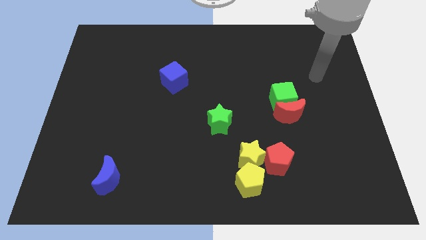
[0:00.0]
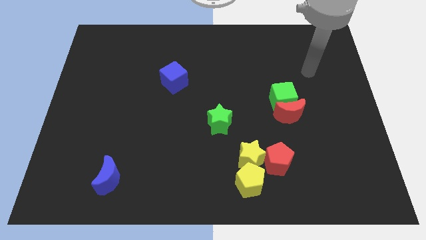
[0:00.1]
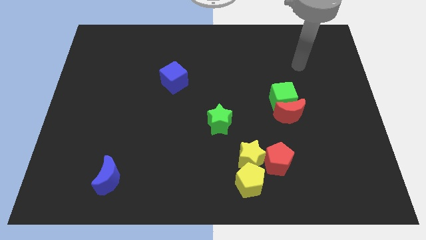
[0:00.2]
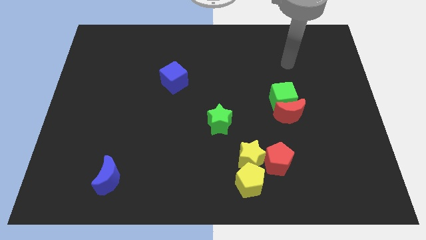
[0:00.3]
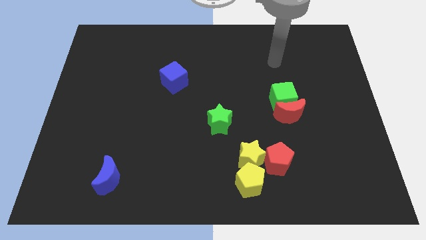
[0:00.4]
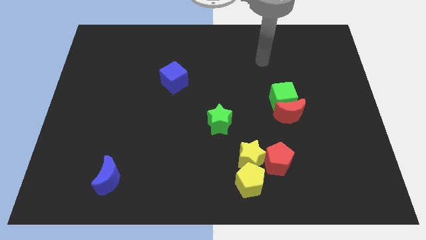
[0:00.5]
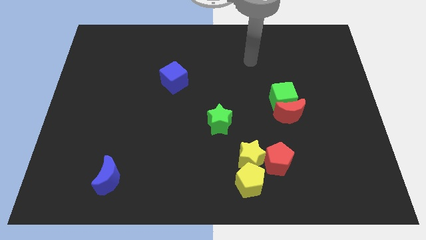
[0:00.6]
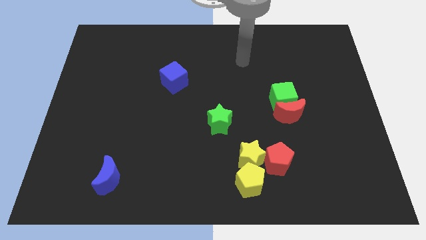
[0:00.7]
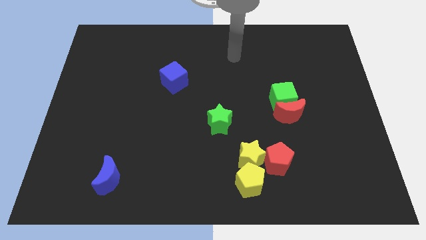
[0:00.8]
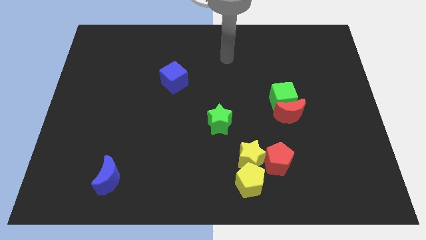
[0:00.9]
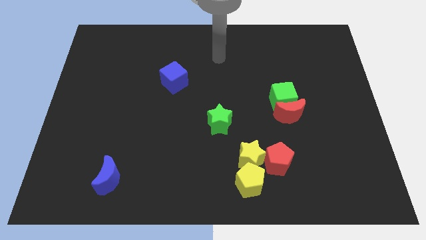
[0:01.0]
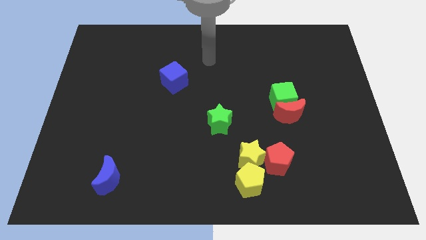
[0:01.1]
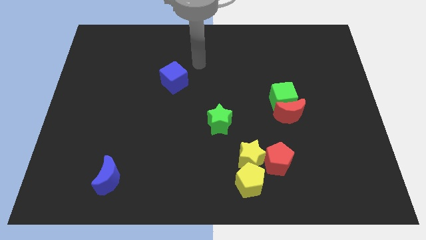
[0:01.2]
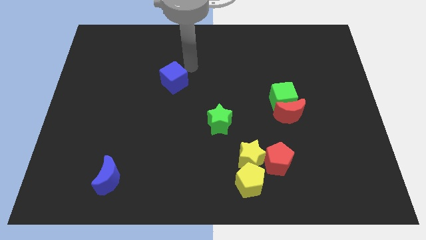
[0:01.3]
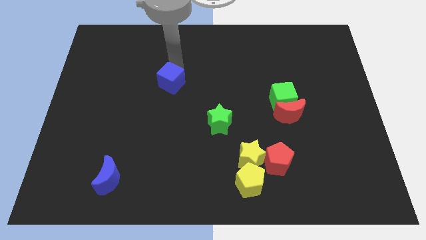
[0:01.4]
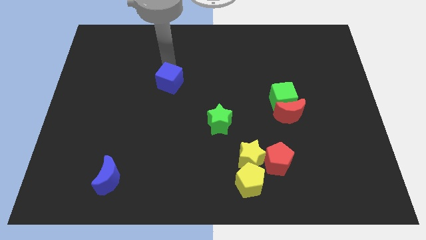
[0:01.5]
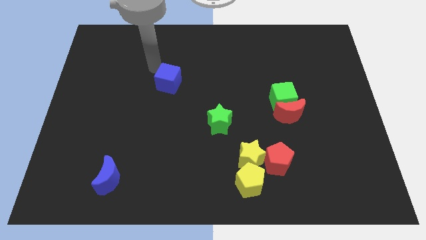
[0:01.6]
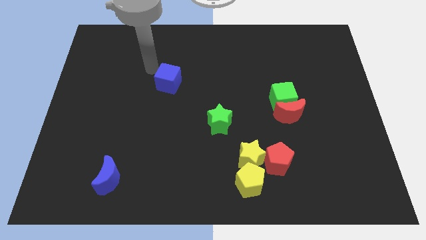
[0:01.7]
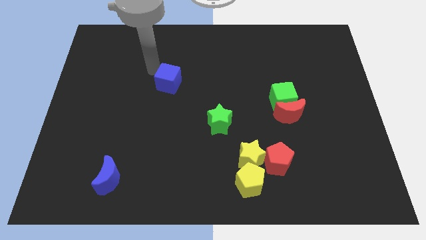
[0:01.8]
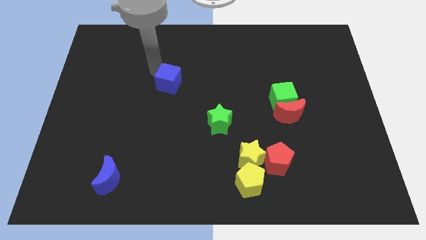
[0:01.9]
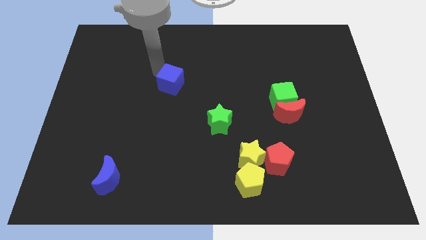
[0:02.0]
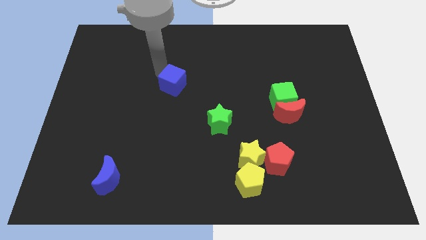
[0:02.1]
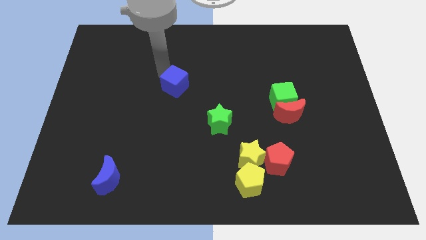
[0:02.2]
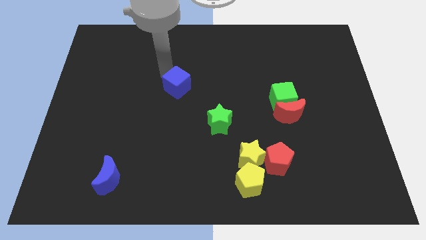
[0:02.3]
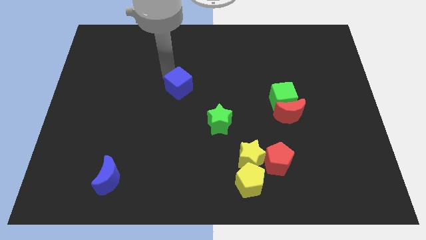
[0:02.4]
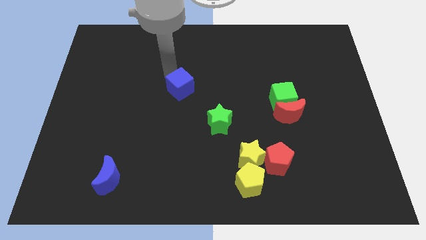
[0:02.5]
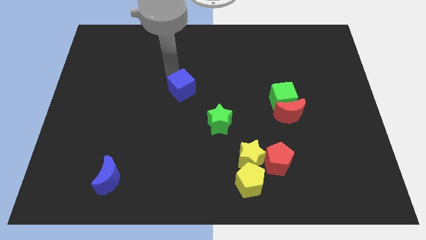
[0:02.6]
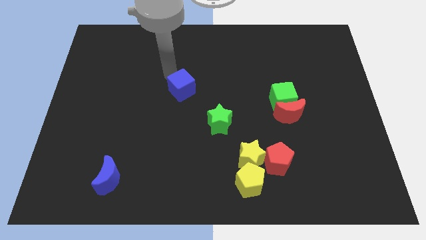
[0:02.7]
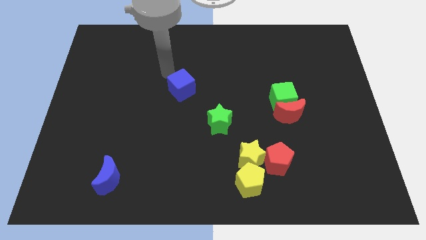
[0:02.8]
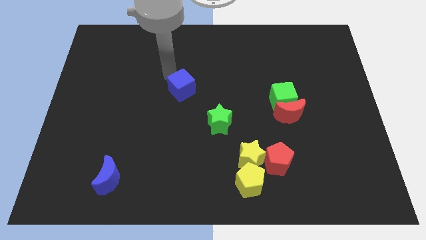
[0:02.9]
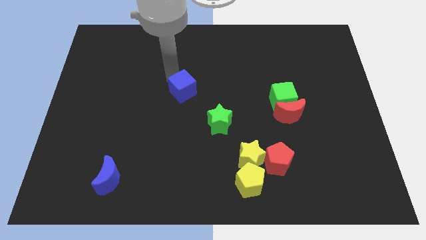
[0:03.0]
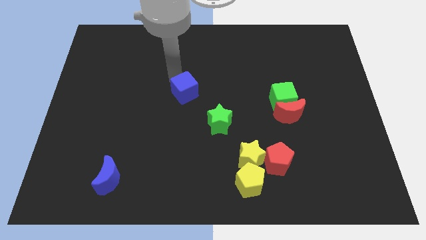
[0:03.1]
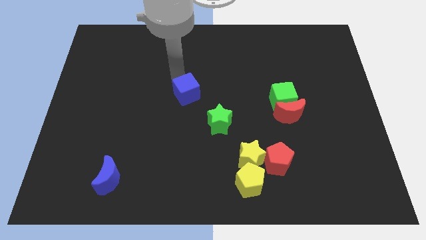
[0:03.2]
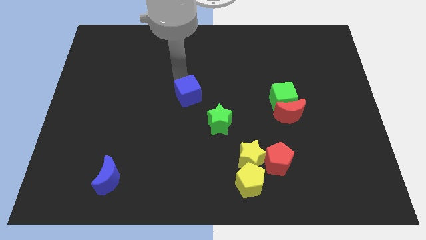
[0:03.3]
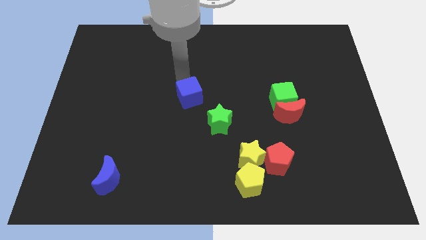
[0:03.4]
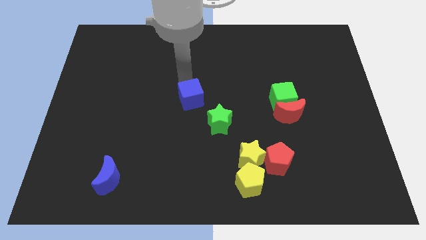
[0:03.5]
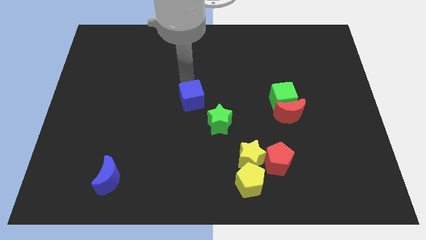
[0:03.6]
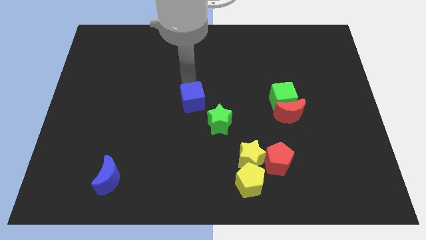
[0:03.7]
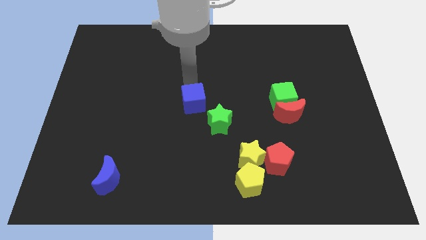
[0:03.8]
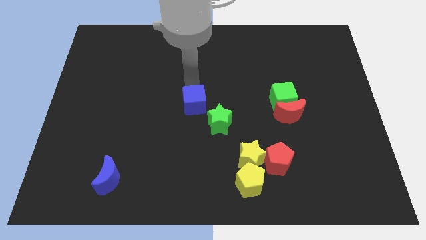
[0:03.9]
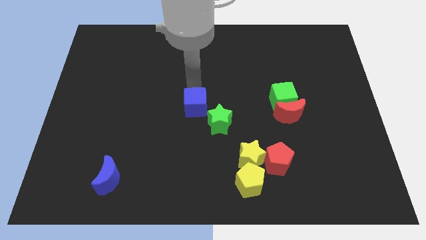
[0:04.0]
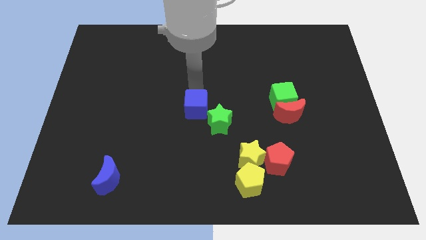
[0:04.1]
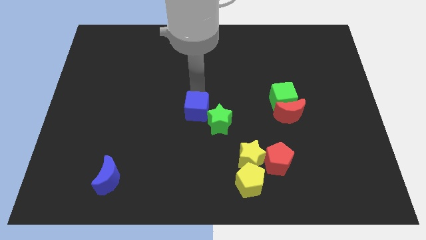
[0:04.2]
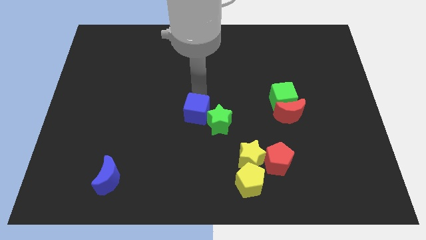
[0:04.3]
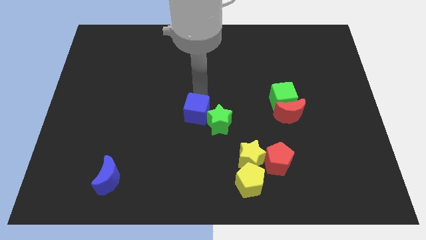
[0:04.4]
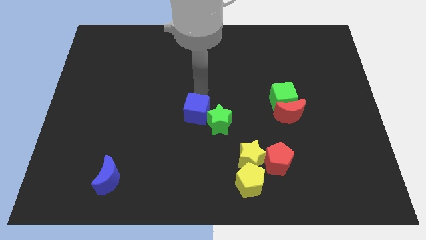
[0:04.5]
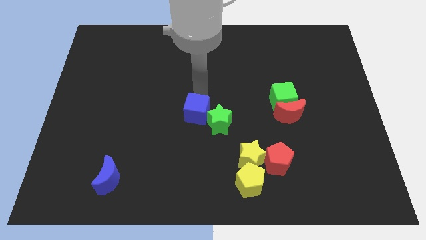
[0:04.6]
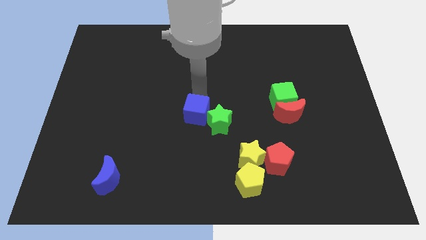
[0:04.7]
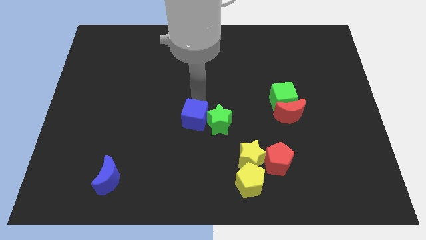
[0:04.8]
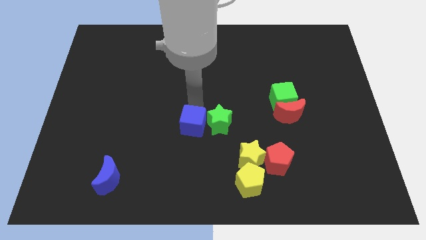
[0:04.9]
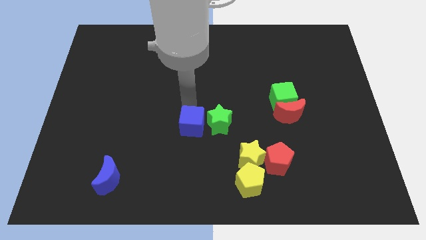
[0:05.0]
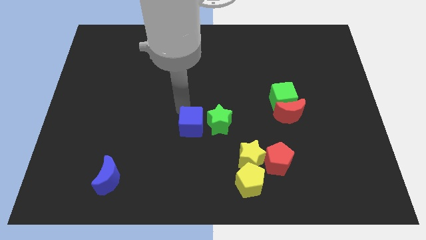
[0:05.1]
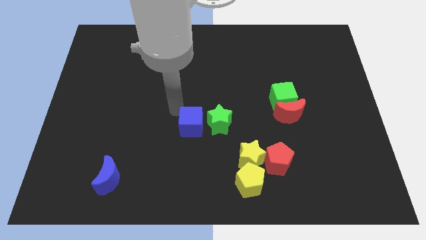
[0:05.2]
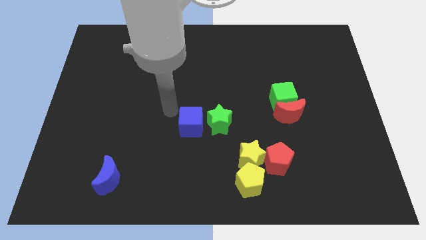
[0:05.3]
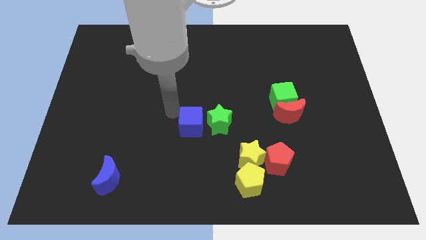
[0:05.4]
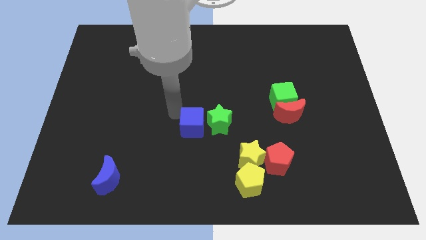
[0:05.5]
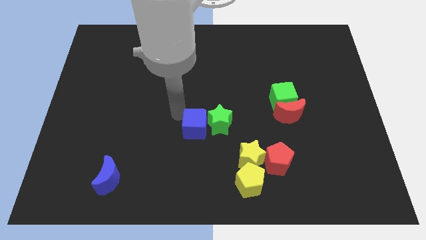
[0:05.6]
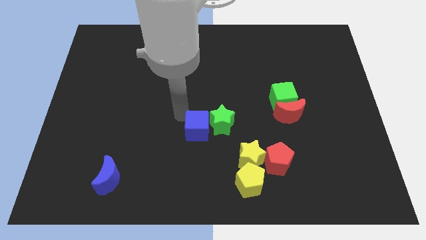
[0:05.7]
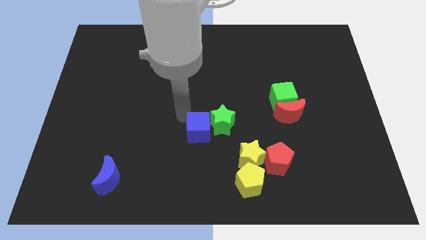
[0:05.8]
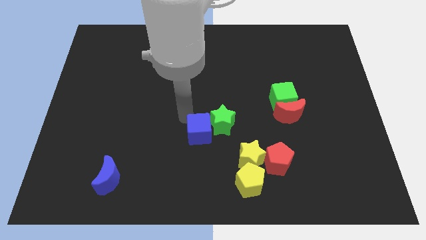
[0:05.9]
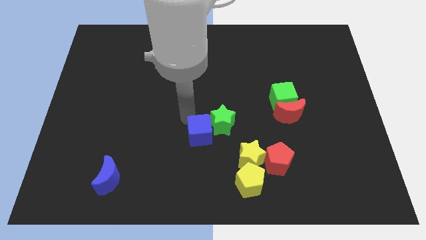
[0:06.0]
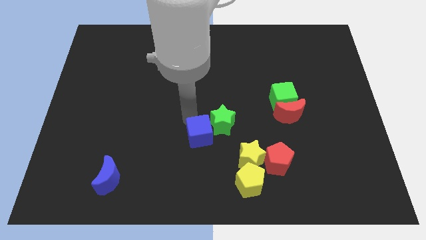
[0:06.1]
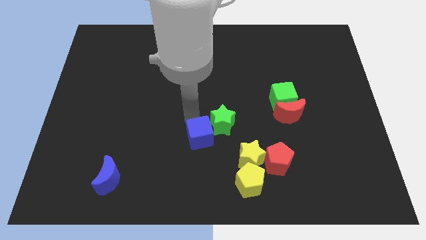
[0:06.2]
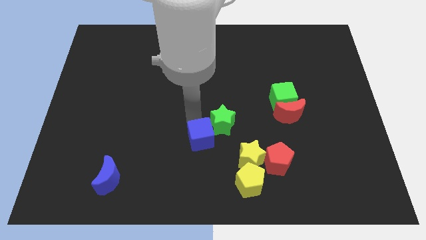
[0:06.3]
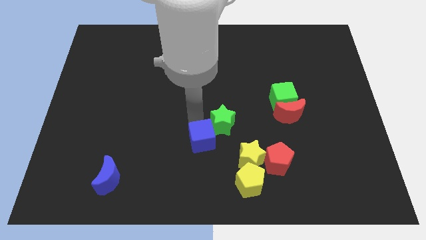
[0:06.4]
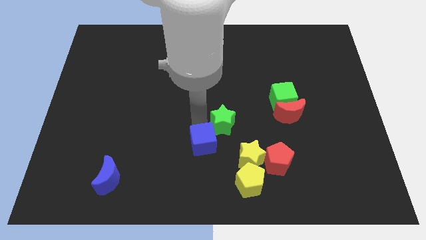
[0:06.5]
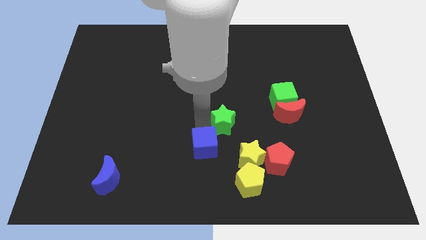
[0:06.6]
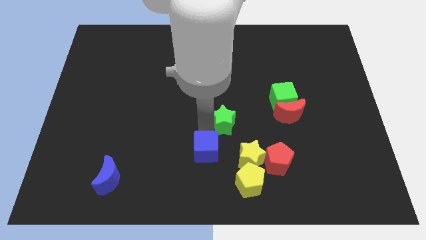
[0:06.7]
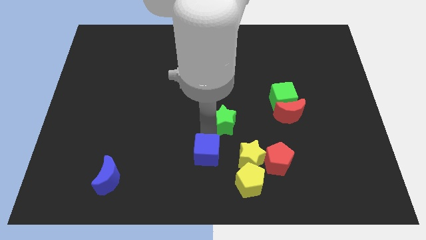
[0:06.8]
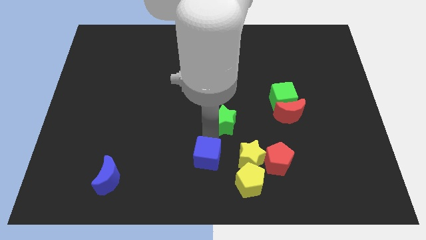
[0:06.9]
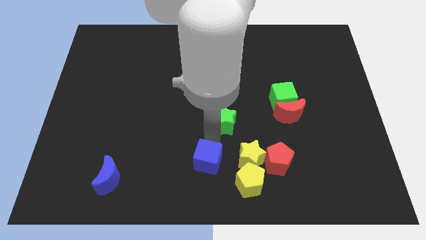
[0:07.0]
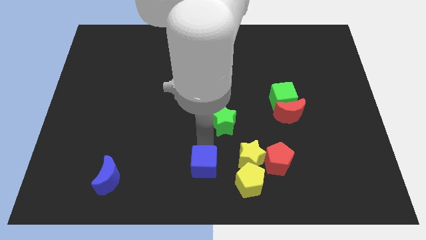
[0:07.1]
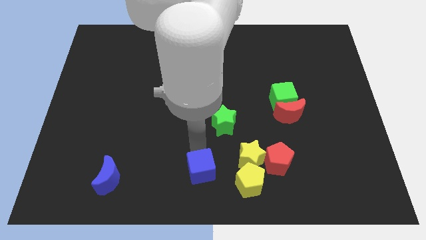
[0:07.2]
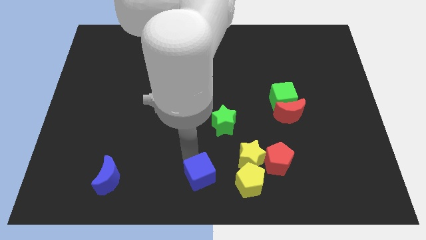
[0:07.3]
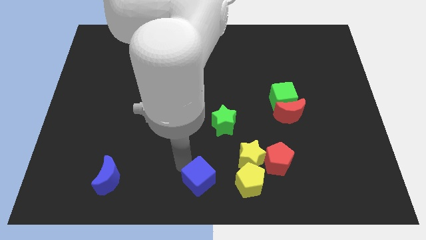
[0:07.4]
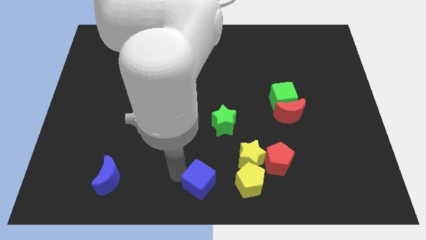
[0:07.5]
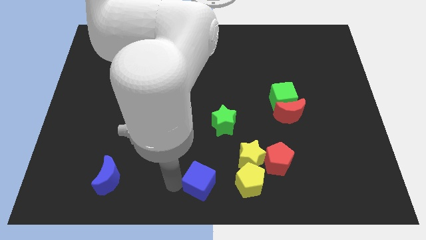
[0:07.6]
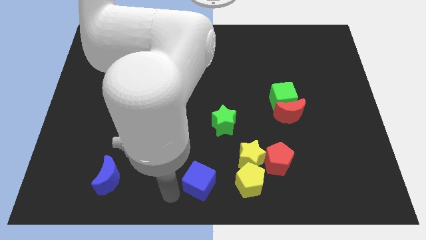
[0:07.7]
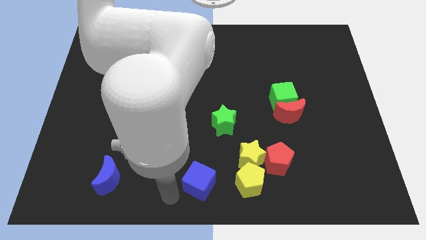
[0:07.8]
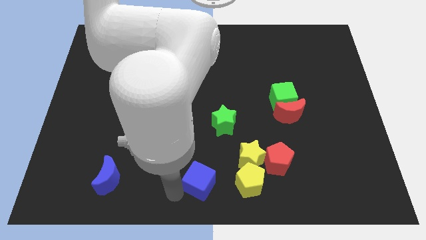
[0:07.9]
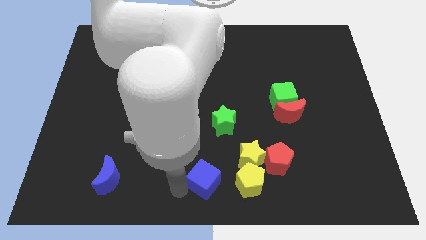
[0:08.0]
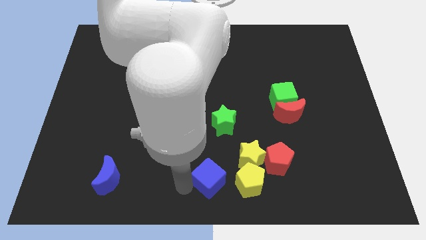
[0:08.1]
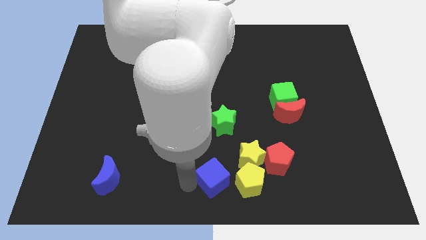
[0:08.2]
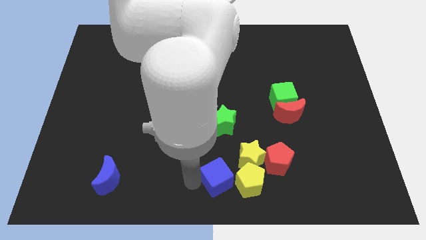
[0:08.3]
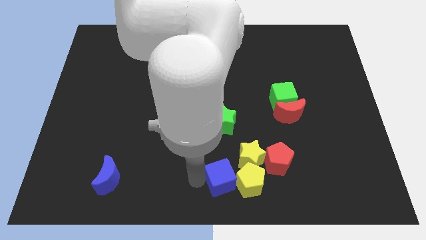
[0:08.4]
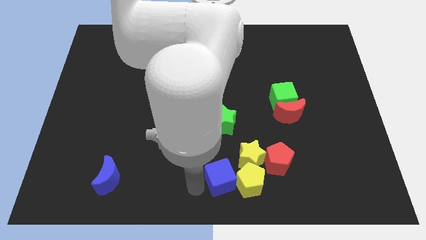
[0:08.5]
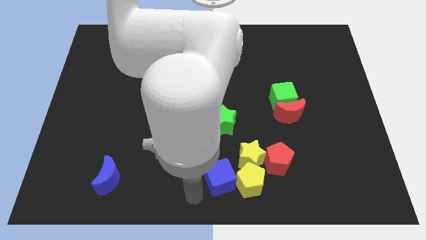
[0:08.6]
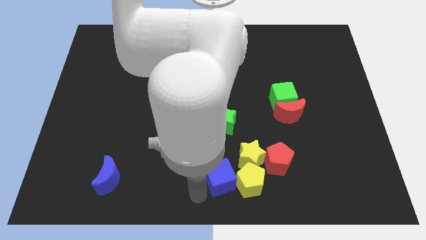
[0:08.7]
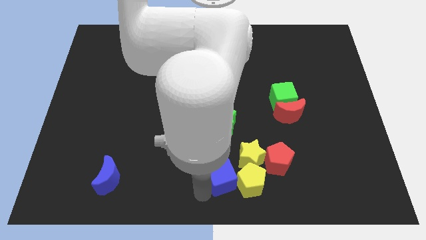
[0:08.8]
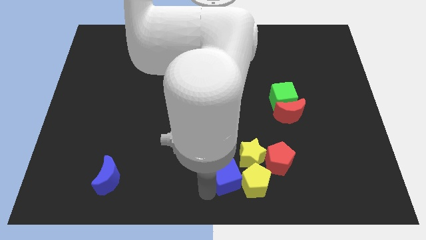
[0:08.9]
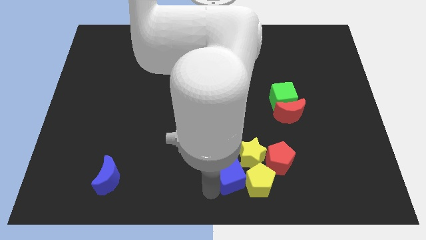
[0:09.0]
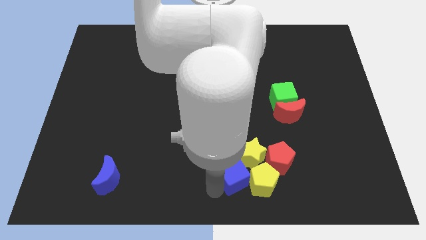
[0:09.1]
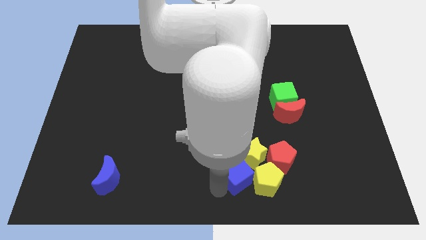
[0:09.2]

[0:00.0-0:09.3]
move the blue cube next to the yellow star
